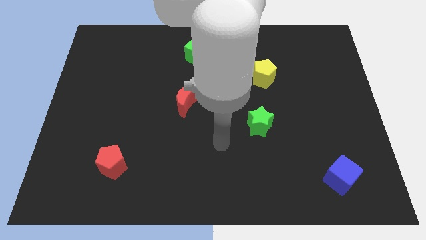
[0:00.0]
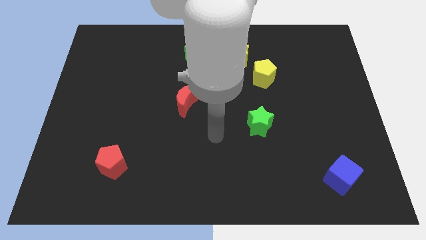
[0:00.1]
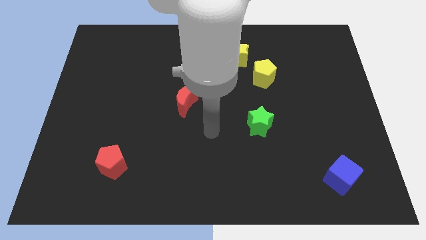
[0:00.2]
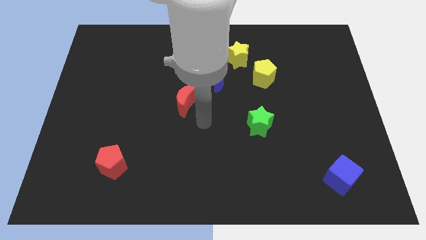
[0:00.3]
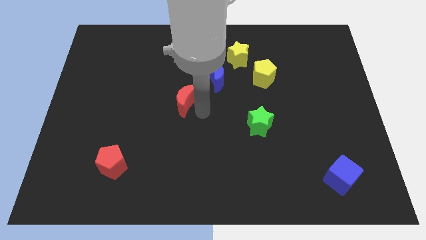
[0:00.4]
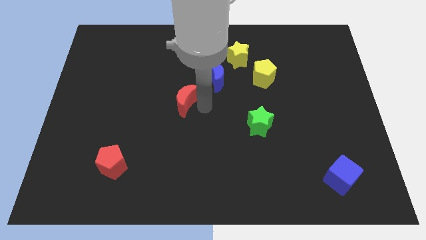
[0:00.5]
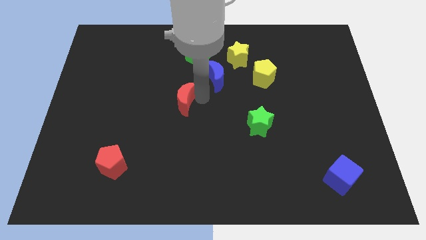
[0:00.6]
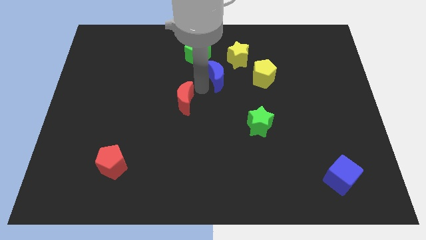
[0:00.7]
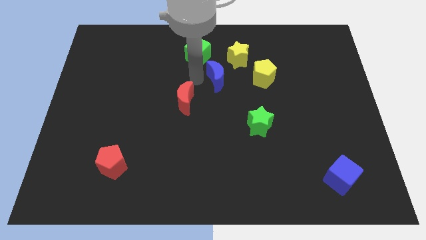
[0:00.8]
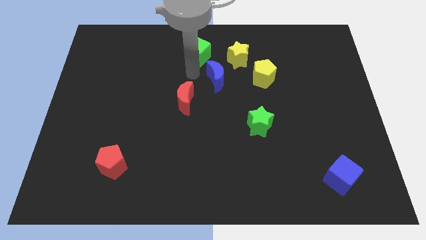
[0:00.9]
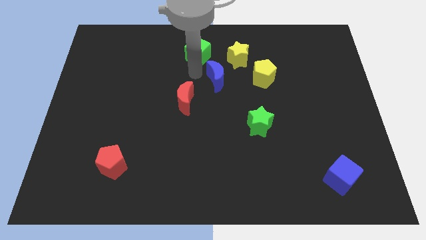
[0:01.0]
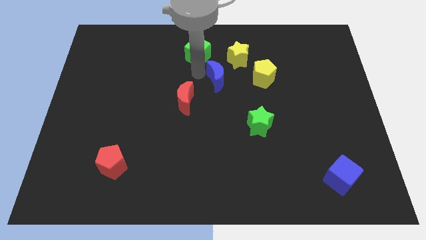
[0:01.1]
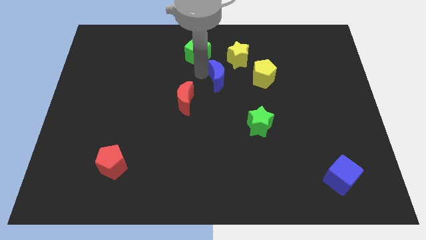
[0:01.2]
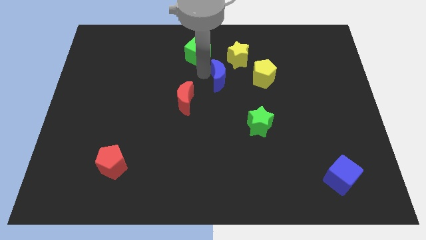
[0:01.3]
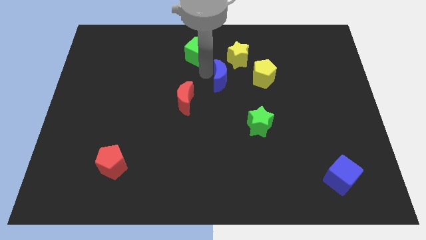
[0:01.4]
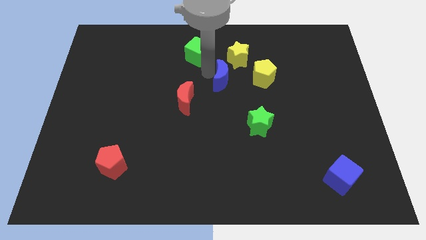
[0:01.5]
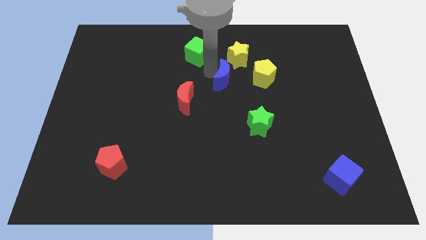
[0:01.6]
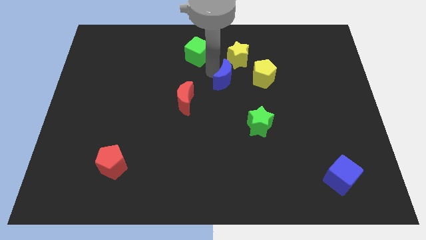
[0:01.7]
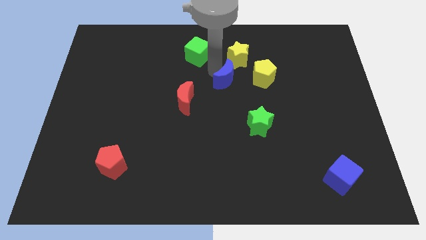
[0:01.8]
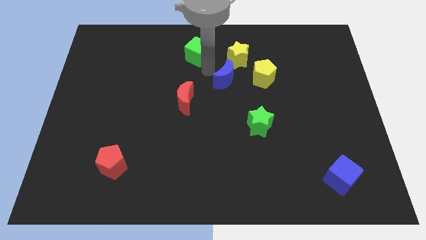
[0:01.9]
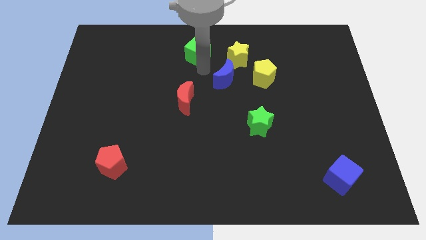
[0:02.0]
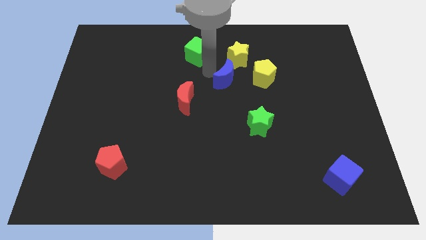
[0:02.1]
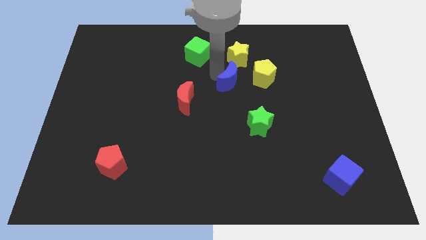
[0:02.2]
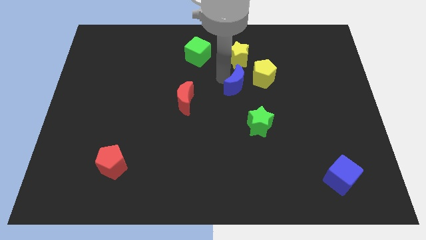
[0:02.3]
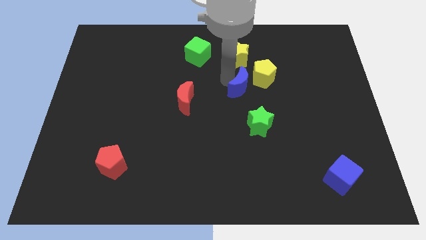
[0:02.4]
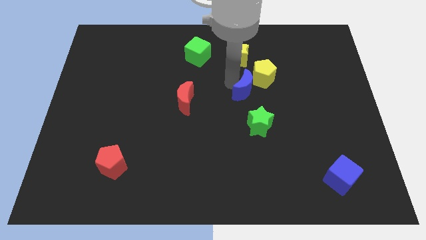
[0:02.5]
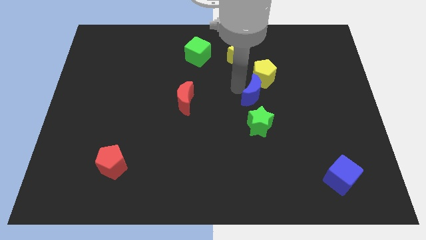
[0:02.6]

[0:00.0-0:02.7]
move the blue moon a bit to the right

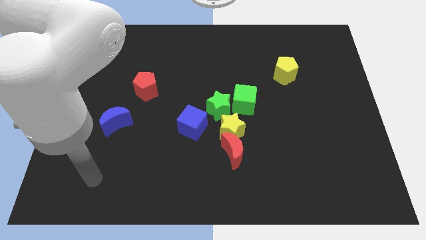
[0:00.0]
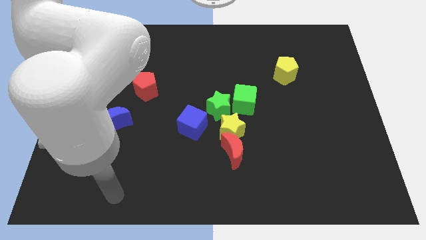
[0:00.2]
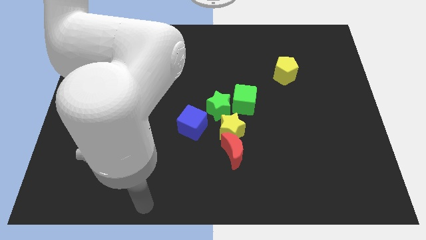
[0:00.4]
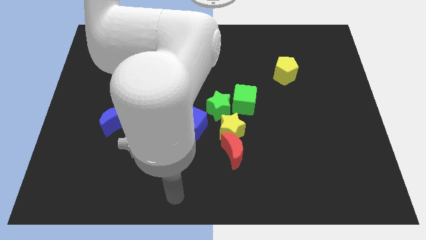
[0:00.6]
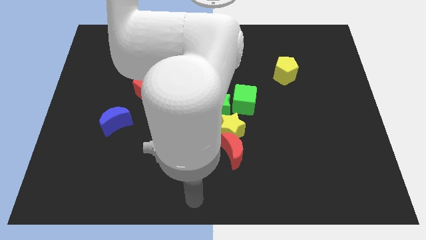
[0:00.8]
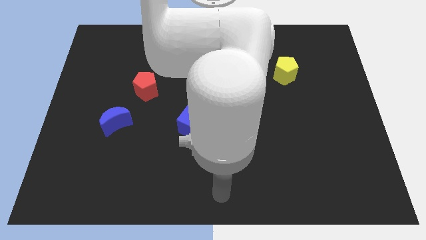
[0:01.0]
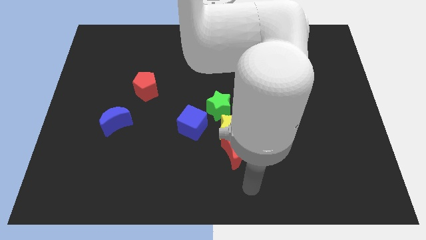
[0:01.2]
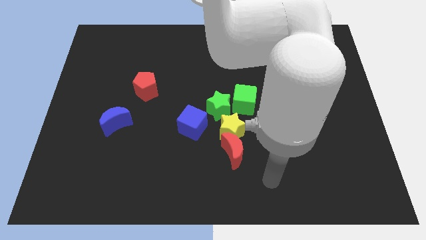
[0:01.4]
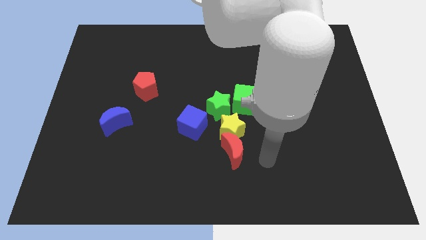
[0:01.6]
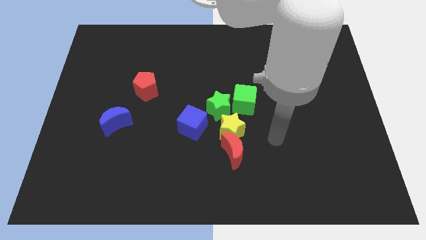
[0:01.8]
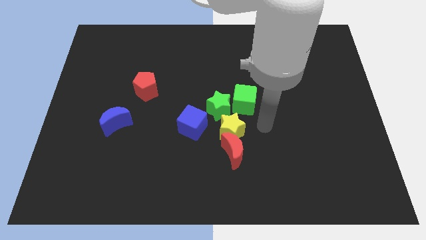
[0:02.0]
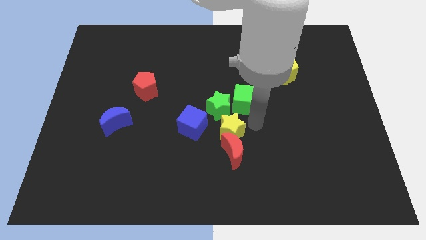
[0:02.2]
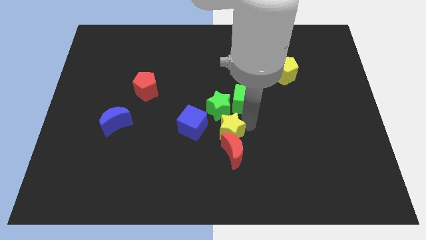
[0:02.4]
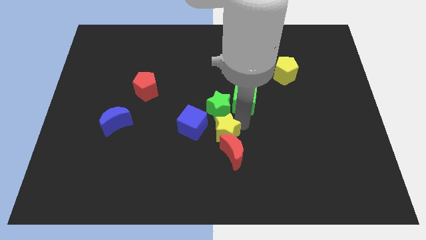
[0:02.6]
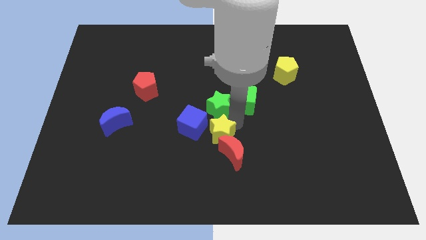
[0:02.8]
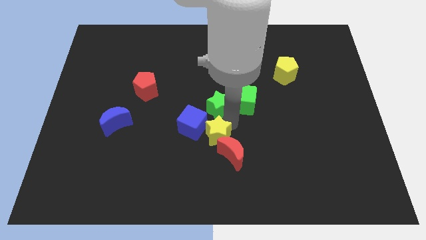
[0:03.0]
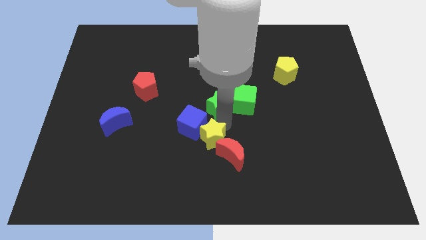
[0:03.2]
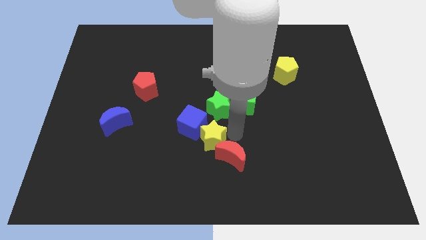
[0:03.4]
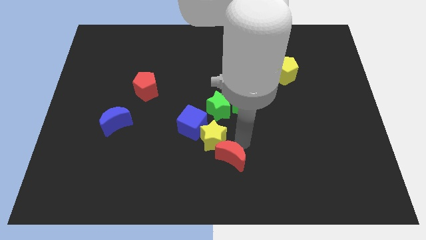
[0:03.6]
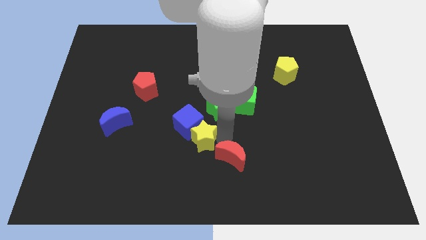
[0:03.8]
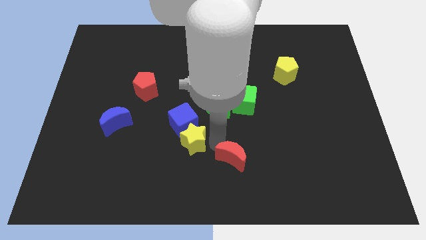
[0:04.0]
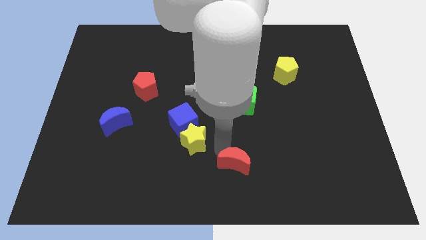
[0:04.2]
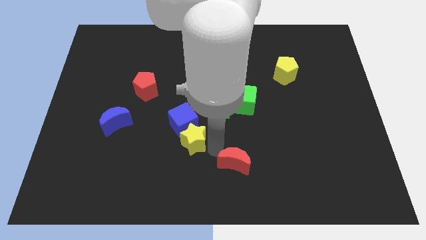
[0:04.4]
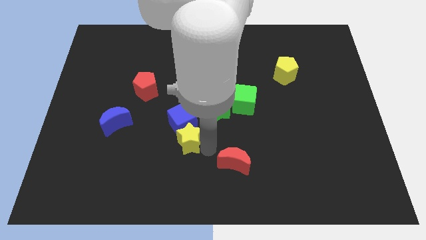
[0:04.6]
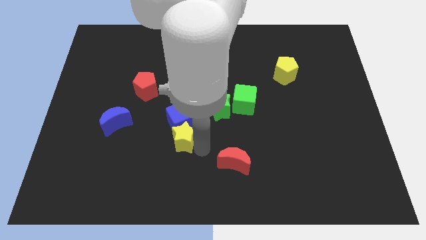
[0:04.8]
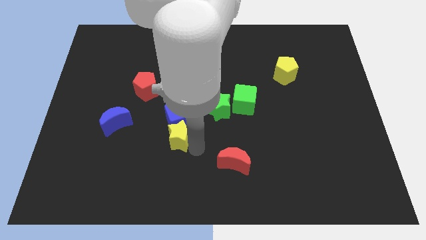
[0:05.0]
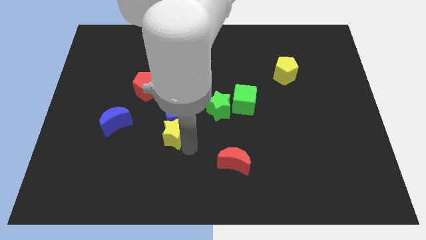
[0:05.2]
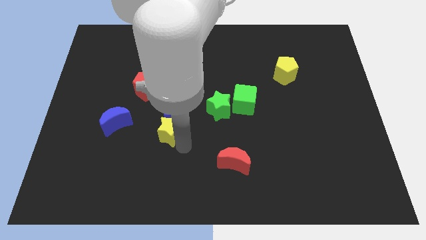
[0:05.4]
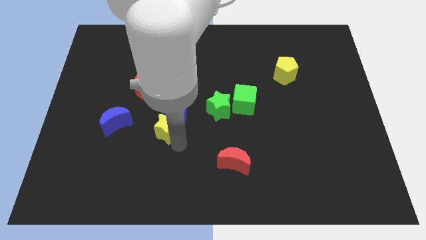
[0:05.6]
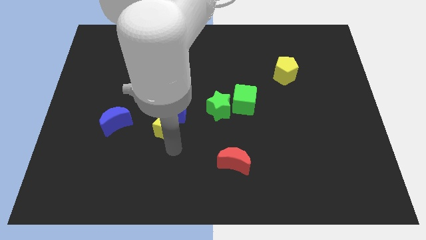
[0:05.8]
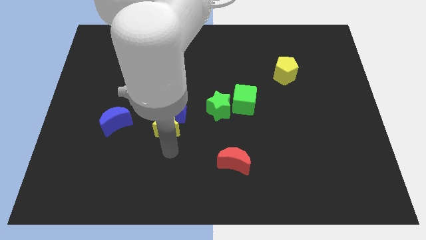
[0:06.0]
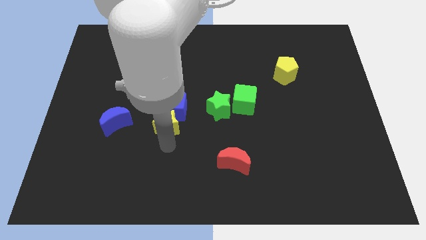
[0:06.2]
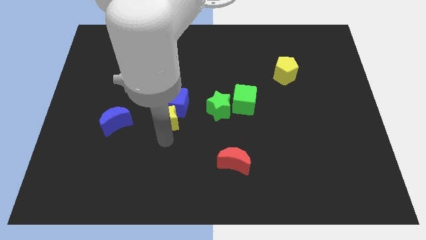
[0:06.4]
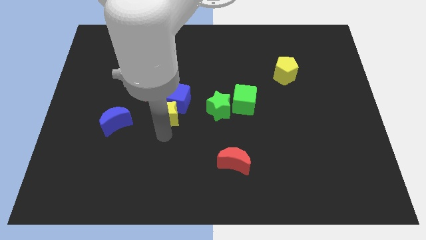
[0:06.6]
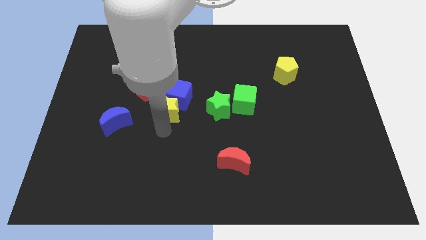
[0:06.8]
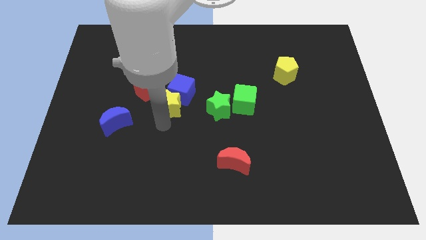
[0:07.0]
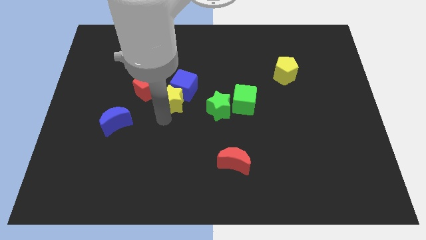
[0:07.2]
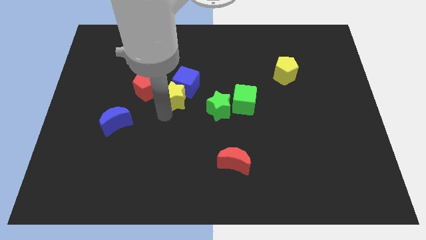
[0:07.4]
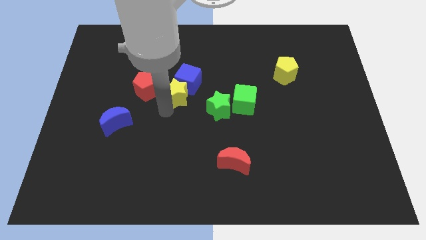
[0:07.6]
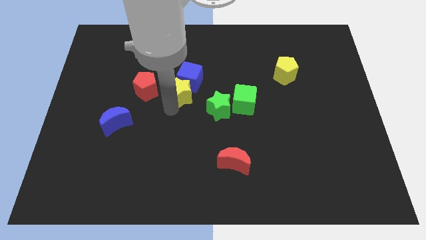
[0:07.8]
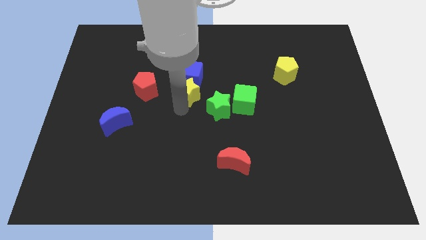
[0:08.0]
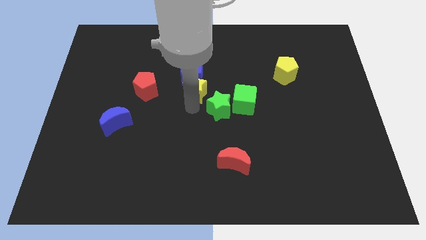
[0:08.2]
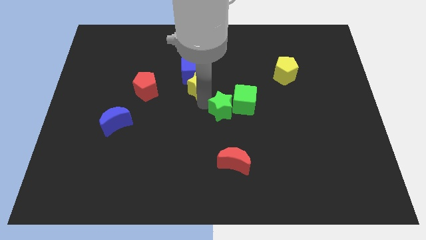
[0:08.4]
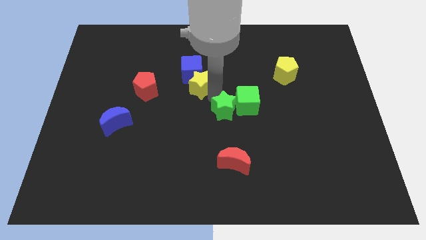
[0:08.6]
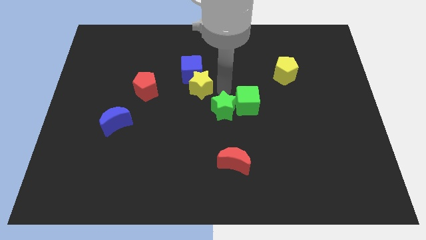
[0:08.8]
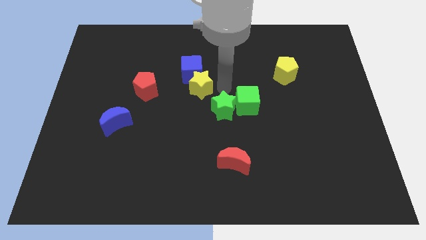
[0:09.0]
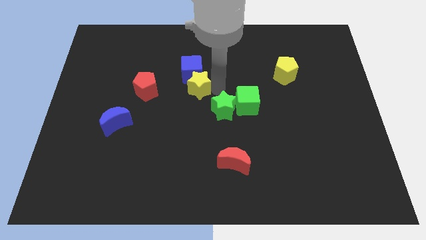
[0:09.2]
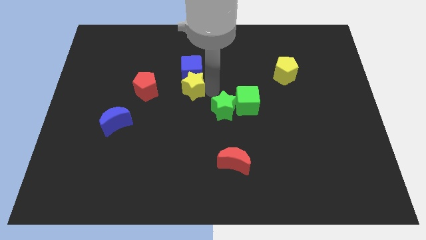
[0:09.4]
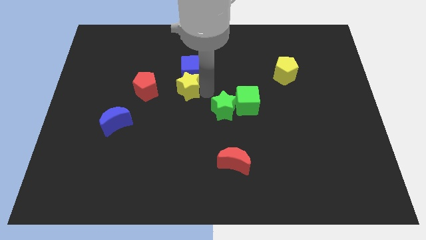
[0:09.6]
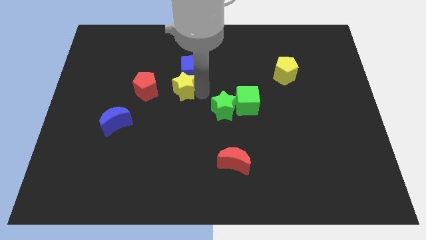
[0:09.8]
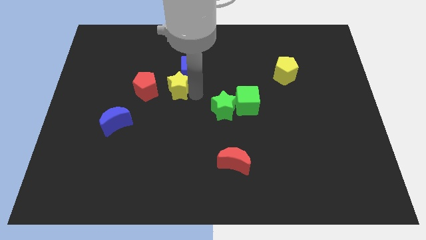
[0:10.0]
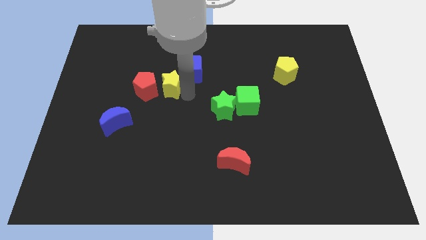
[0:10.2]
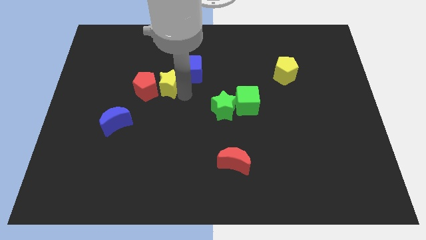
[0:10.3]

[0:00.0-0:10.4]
push the yellow star upwards and then left

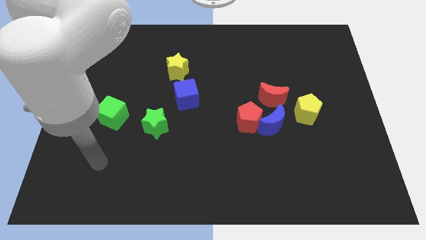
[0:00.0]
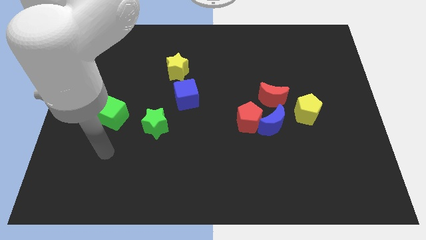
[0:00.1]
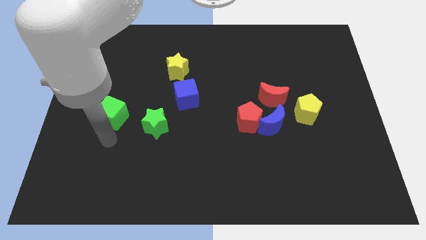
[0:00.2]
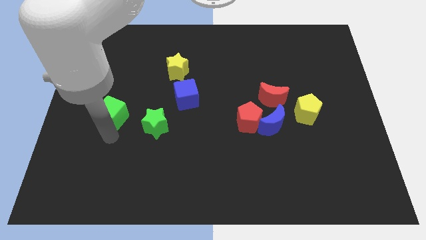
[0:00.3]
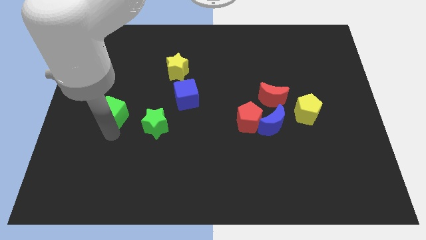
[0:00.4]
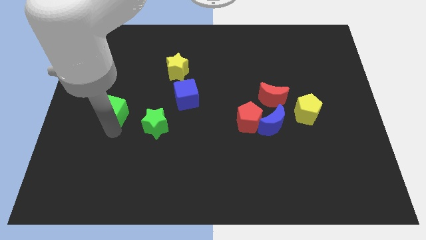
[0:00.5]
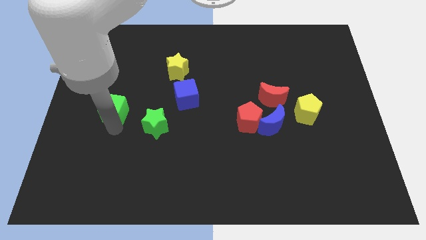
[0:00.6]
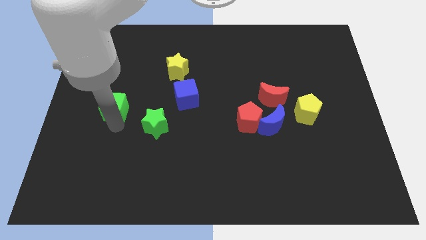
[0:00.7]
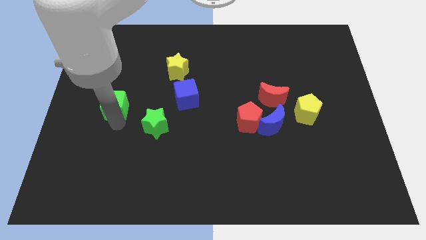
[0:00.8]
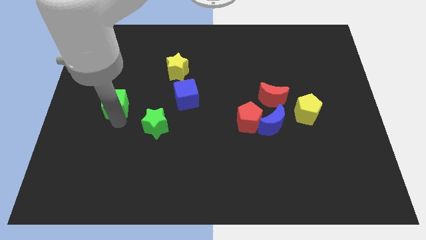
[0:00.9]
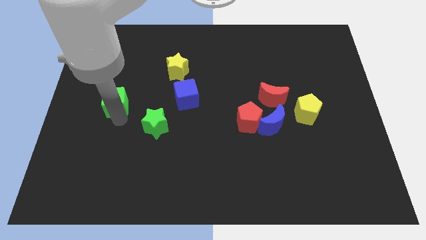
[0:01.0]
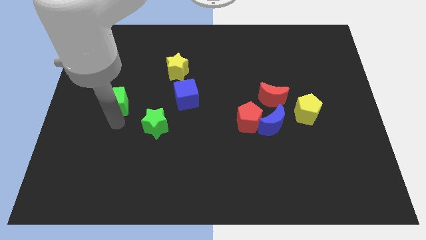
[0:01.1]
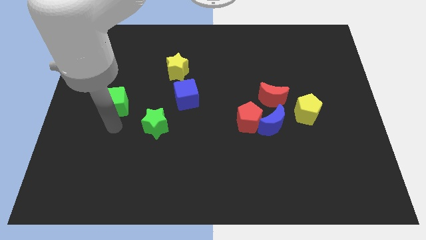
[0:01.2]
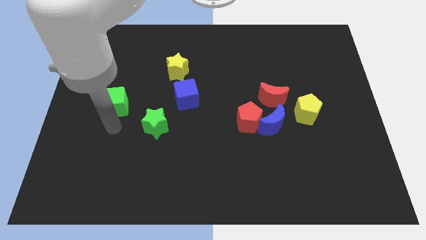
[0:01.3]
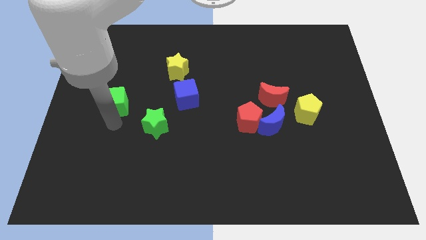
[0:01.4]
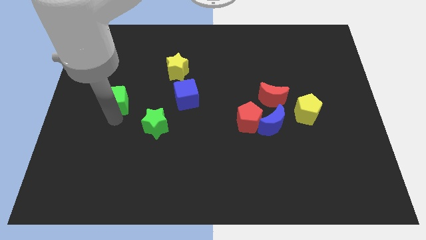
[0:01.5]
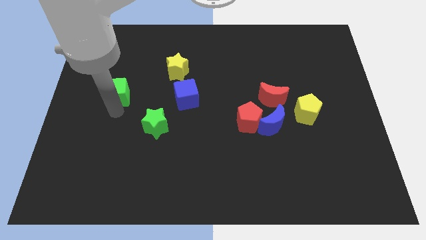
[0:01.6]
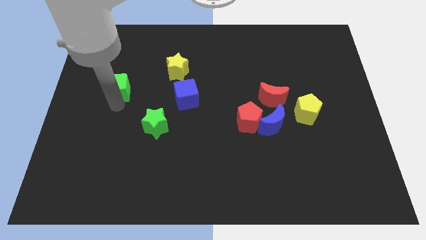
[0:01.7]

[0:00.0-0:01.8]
push the green cube slightly upwards
